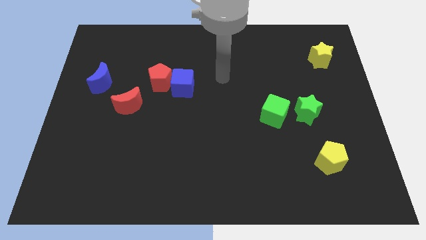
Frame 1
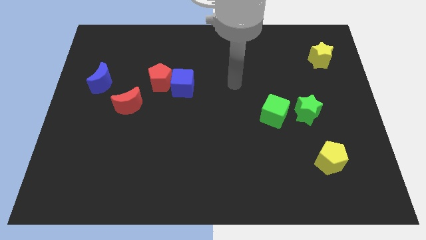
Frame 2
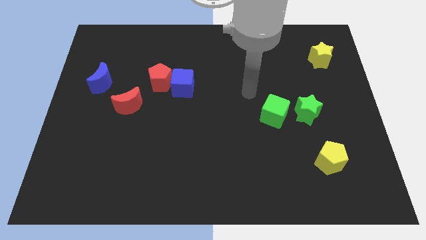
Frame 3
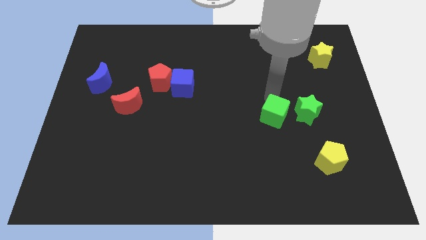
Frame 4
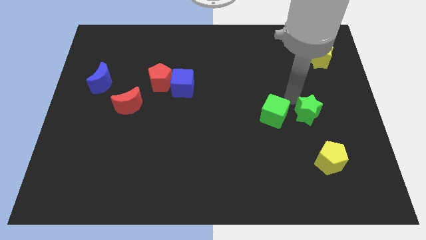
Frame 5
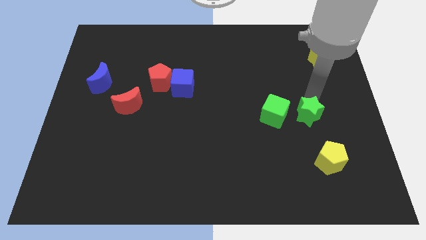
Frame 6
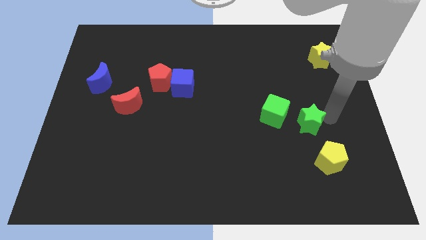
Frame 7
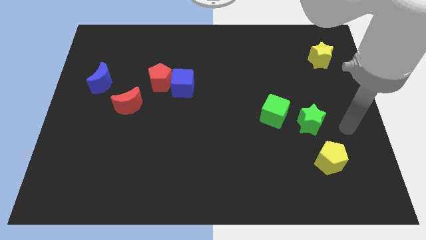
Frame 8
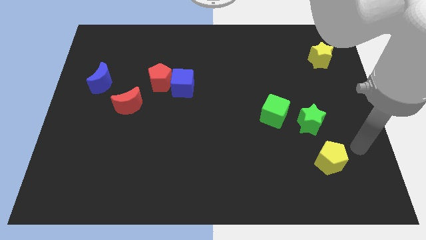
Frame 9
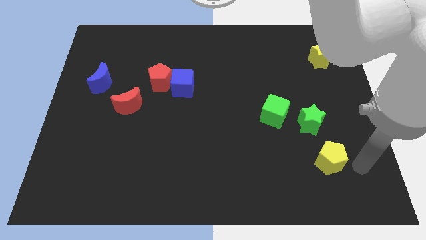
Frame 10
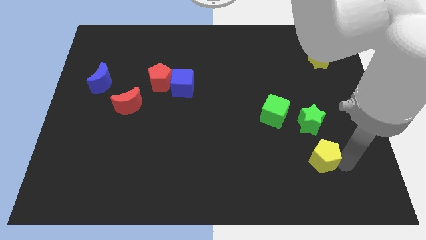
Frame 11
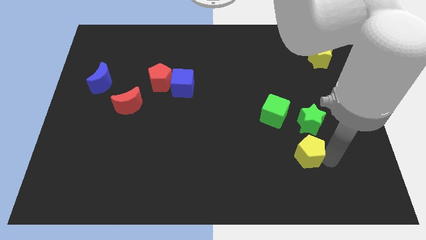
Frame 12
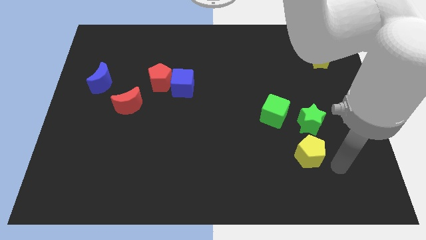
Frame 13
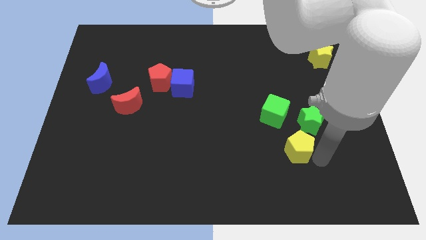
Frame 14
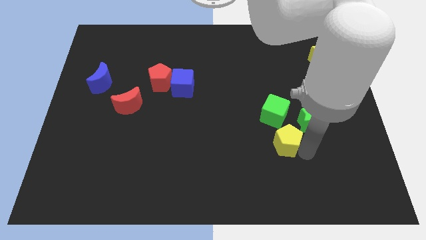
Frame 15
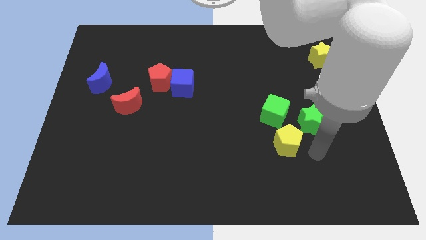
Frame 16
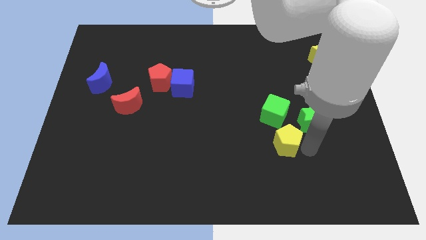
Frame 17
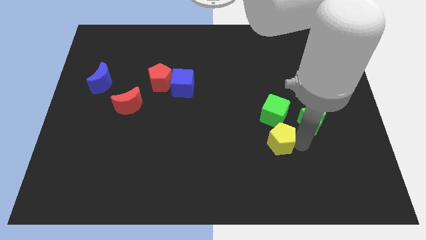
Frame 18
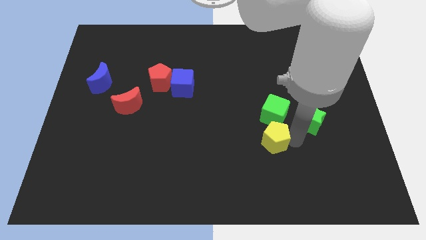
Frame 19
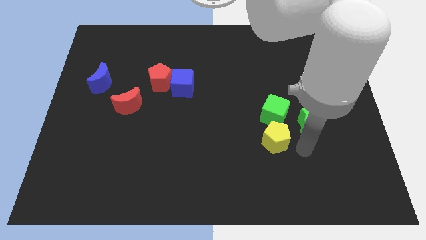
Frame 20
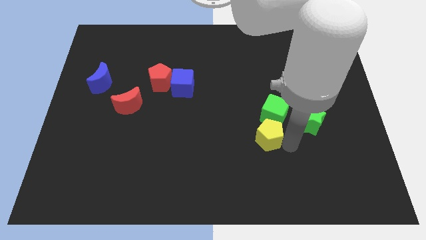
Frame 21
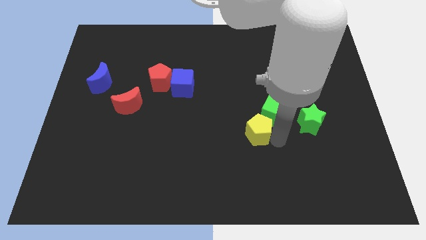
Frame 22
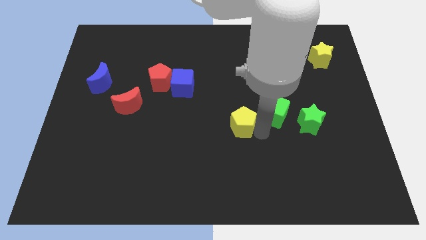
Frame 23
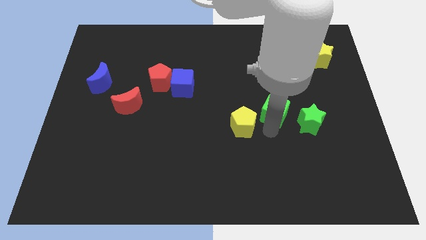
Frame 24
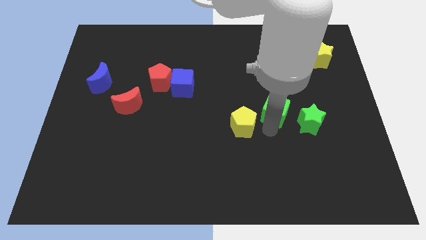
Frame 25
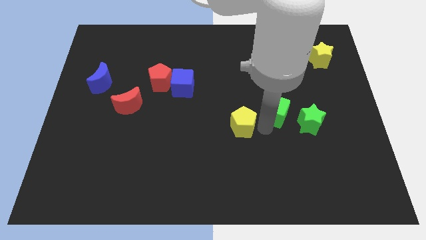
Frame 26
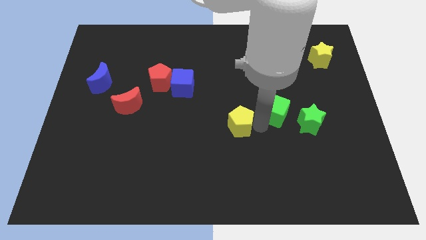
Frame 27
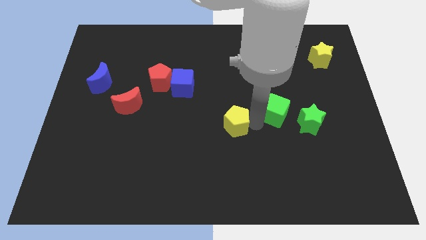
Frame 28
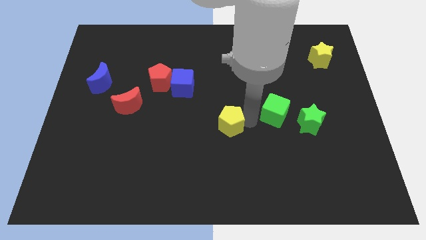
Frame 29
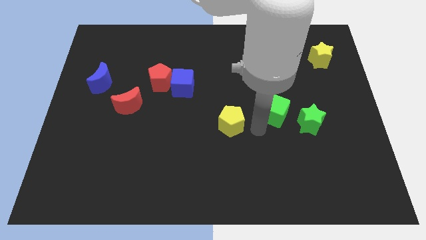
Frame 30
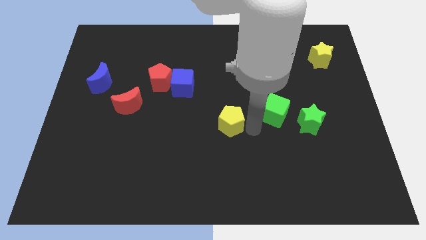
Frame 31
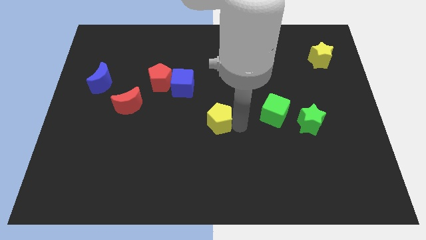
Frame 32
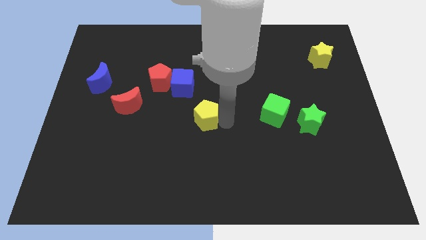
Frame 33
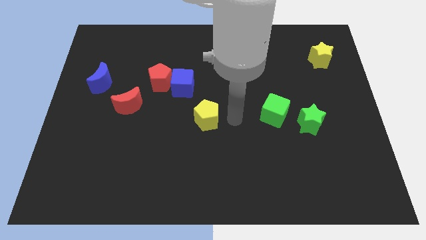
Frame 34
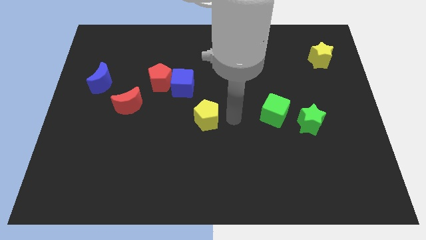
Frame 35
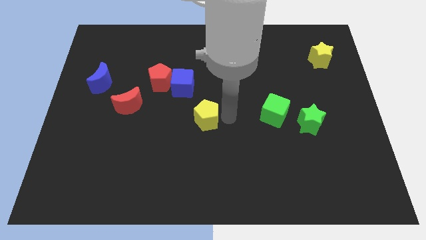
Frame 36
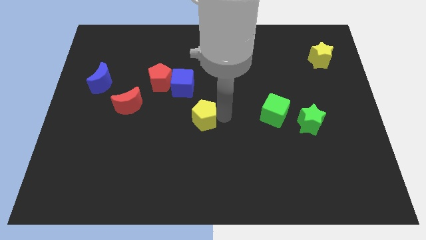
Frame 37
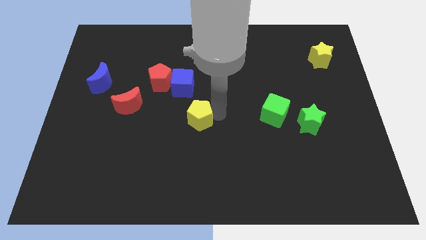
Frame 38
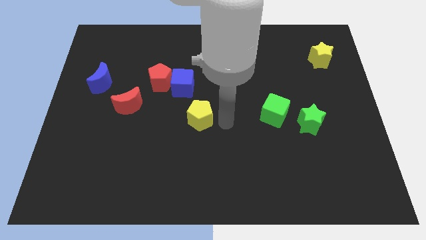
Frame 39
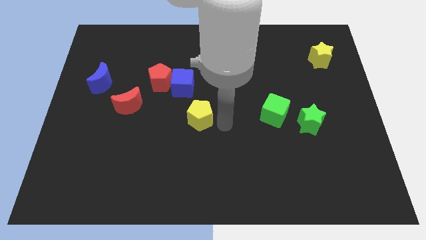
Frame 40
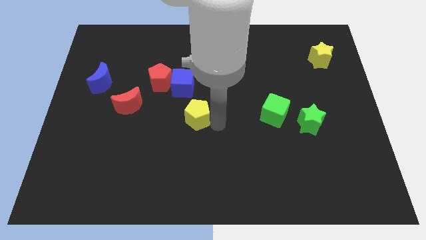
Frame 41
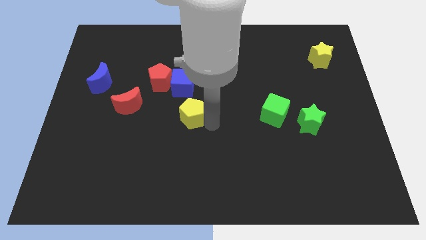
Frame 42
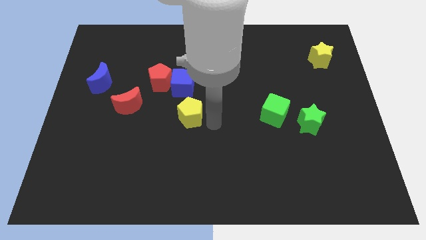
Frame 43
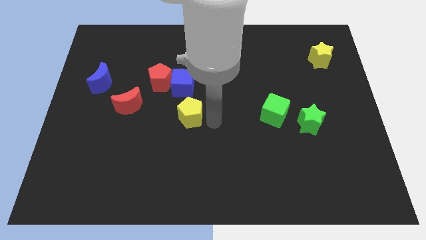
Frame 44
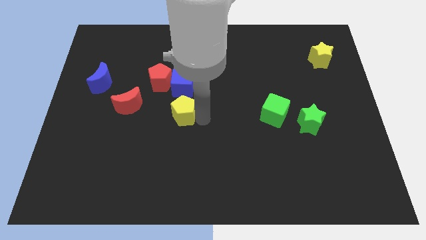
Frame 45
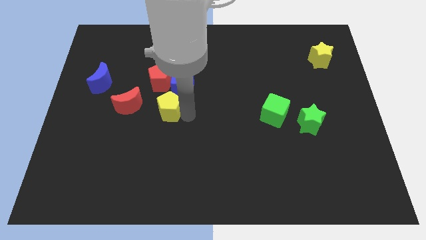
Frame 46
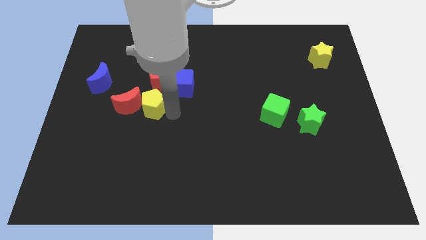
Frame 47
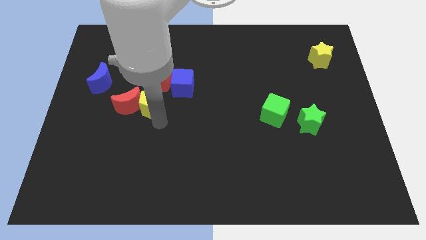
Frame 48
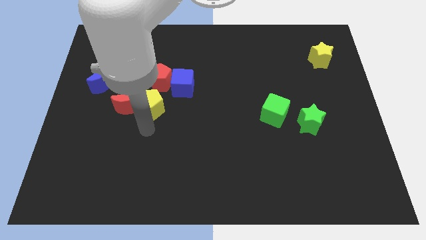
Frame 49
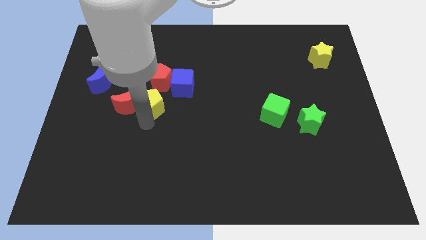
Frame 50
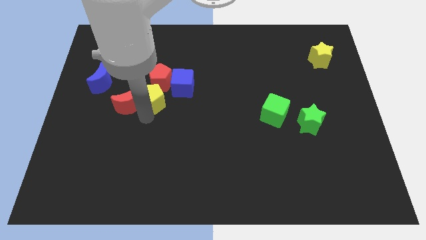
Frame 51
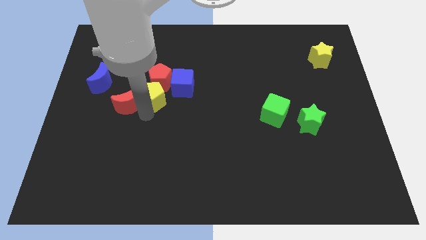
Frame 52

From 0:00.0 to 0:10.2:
put the yellow pentagon close to the red pentagon

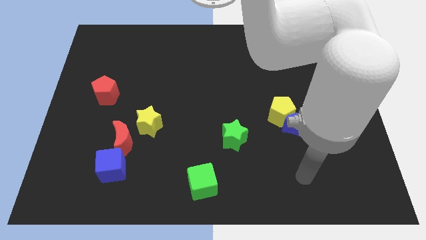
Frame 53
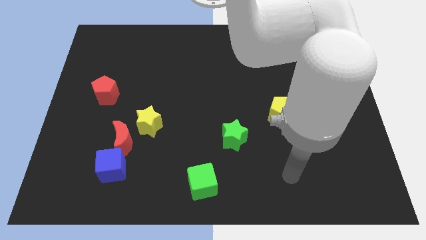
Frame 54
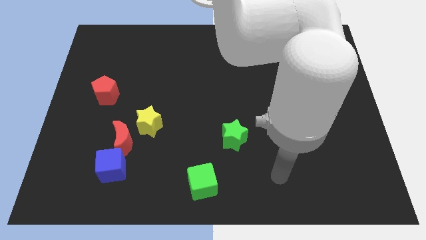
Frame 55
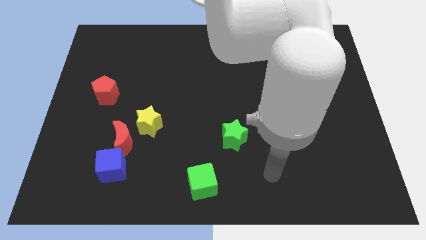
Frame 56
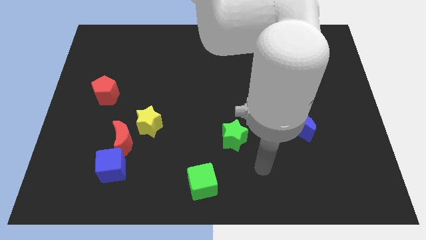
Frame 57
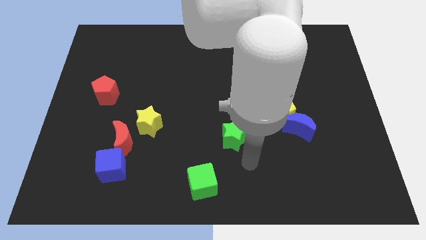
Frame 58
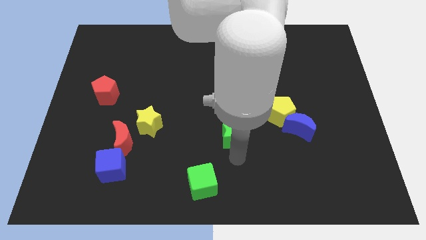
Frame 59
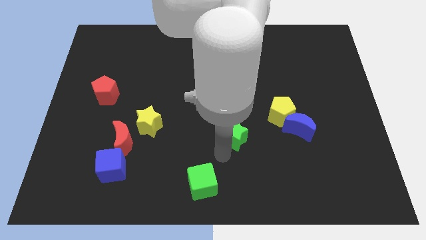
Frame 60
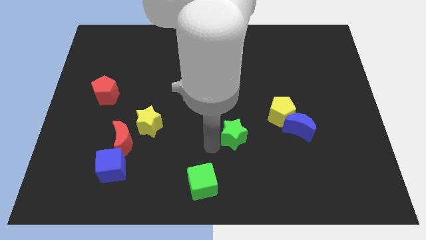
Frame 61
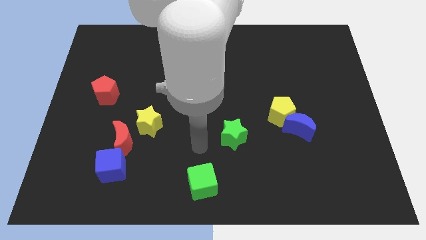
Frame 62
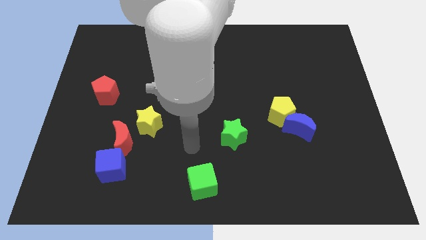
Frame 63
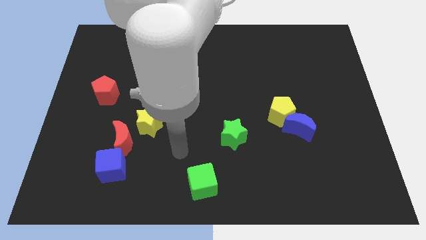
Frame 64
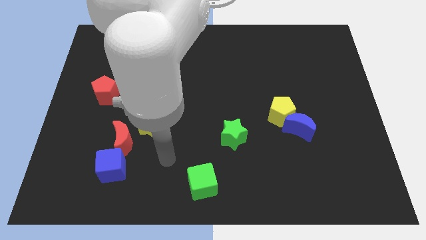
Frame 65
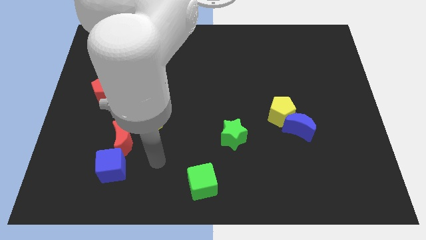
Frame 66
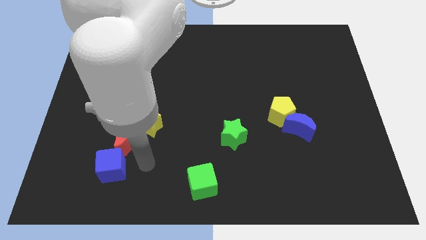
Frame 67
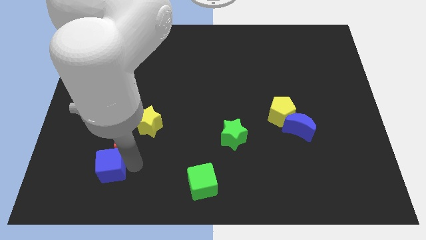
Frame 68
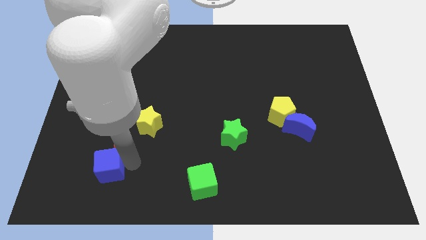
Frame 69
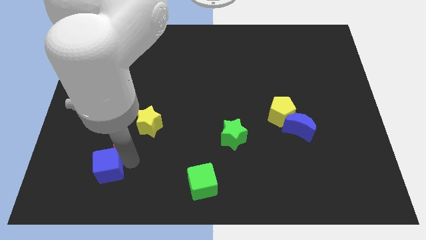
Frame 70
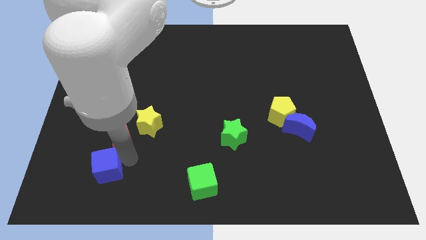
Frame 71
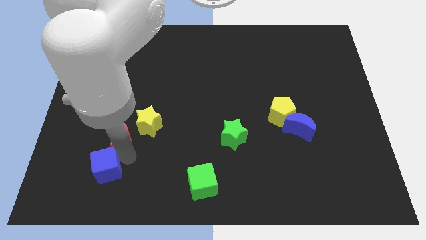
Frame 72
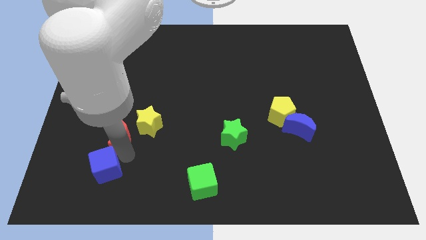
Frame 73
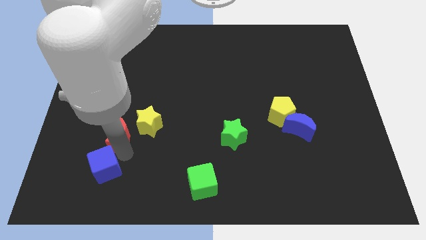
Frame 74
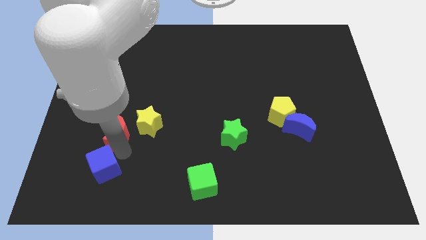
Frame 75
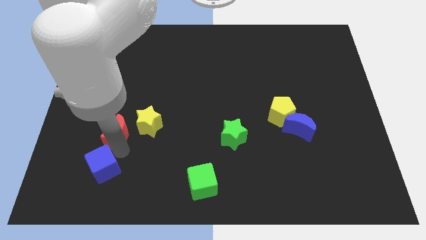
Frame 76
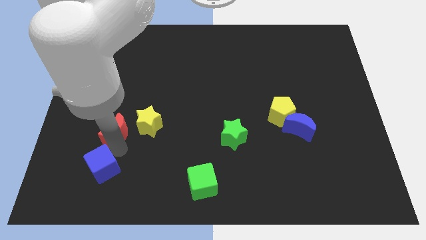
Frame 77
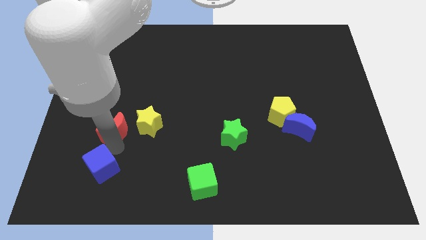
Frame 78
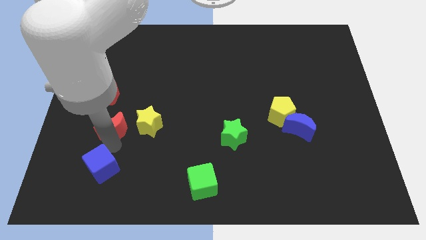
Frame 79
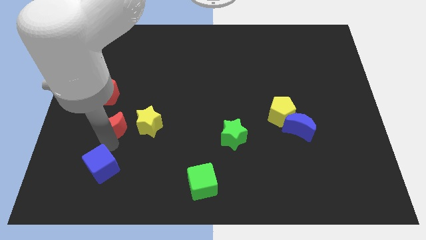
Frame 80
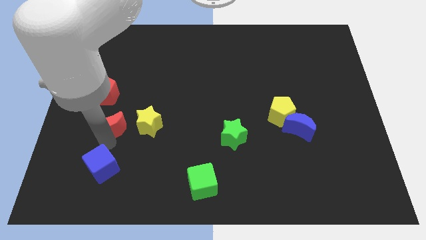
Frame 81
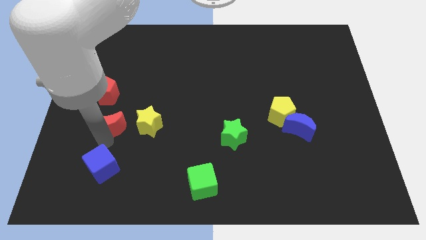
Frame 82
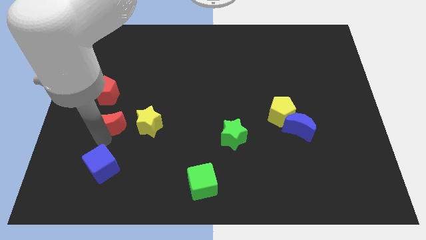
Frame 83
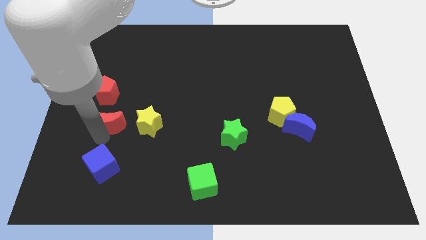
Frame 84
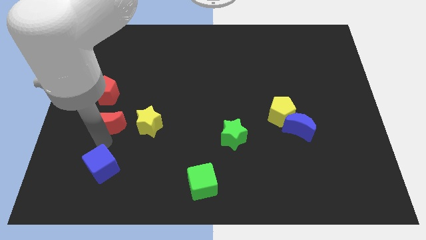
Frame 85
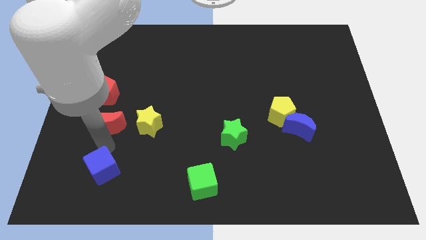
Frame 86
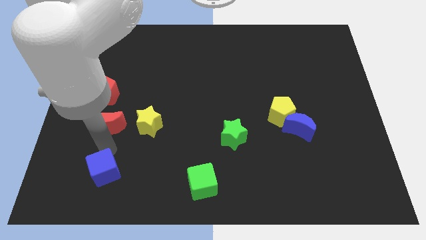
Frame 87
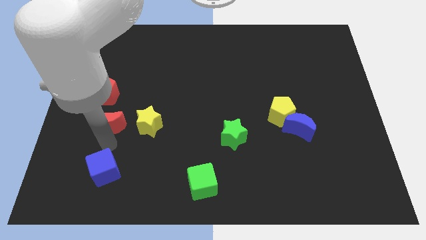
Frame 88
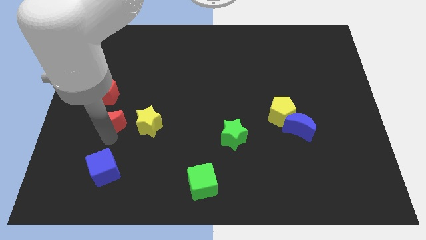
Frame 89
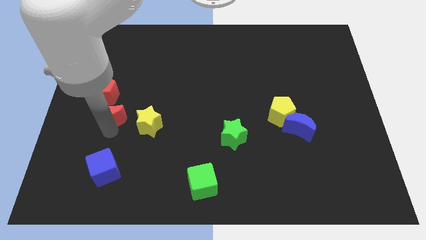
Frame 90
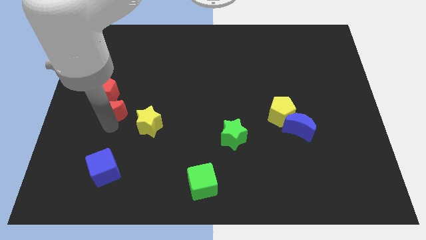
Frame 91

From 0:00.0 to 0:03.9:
push the red moon to the red pentagon
